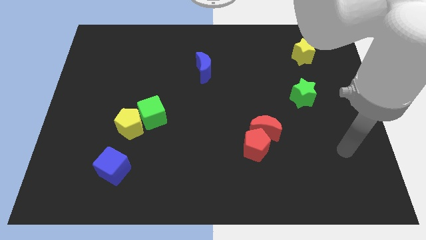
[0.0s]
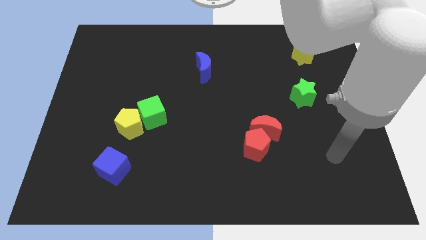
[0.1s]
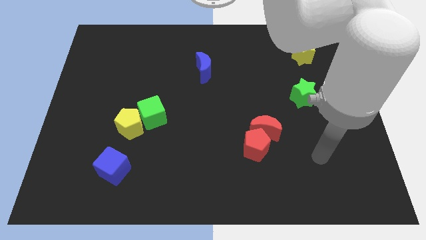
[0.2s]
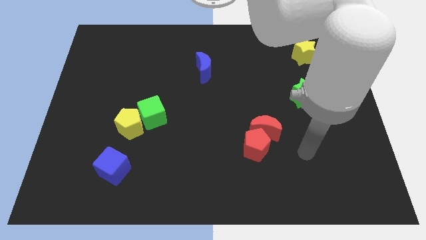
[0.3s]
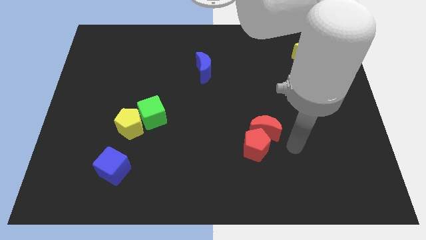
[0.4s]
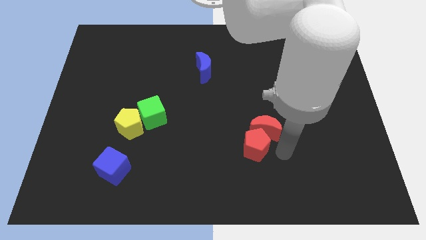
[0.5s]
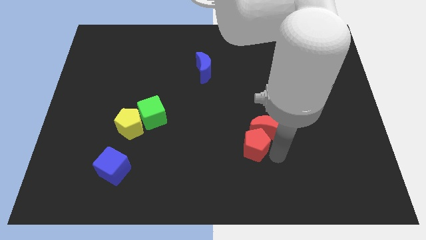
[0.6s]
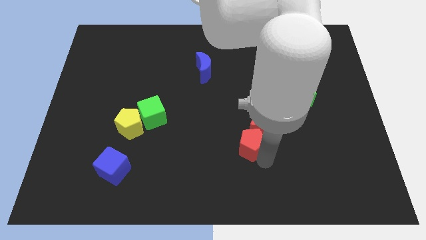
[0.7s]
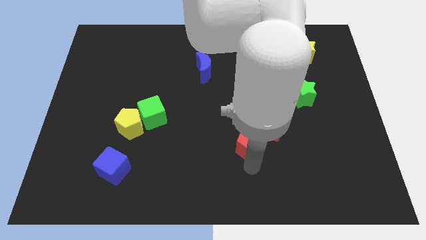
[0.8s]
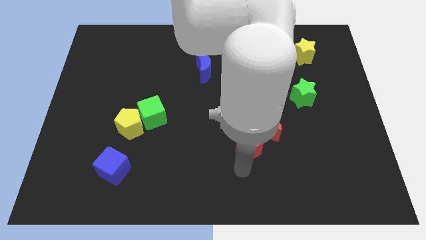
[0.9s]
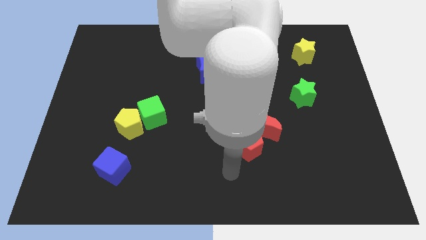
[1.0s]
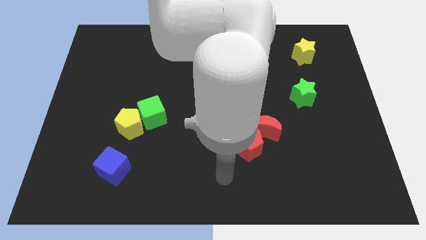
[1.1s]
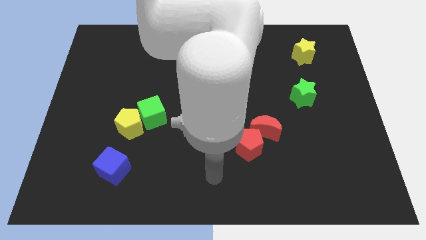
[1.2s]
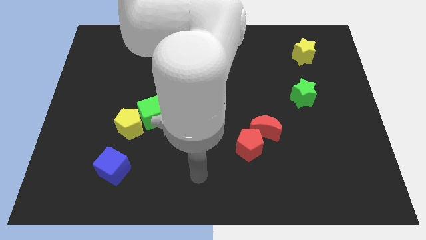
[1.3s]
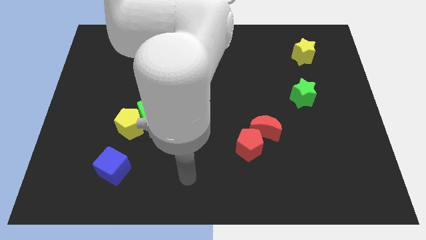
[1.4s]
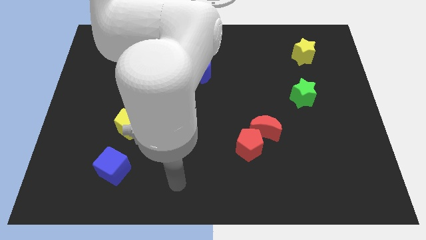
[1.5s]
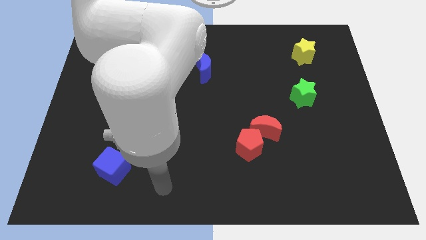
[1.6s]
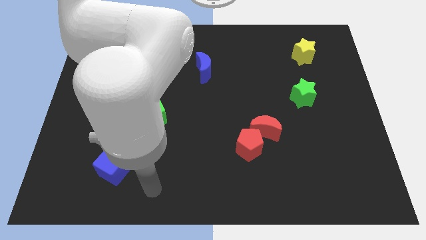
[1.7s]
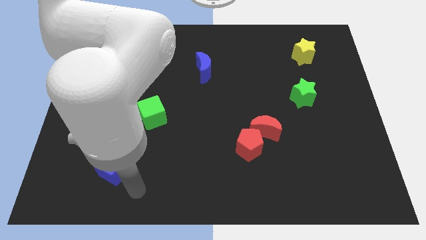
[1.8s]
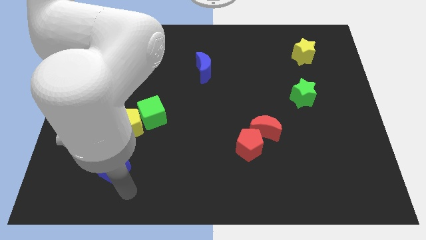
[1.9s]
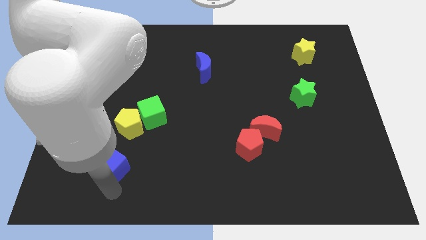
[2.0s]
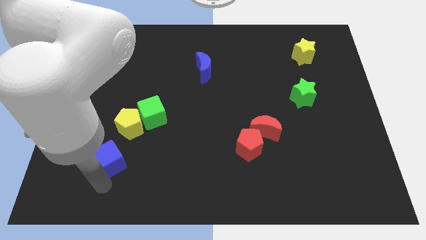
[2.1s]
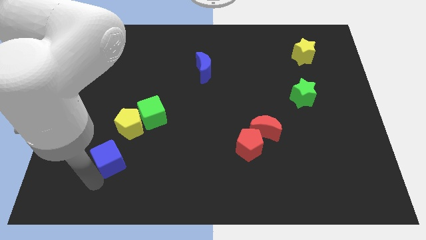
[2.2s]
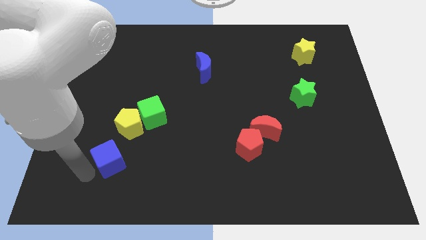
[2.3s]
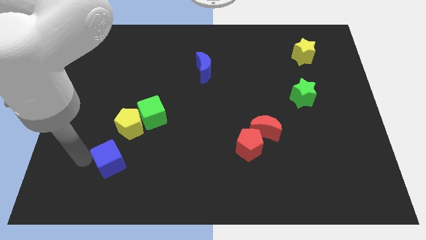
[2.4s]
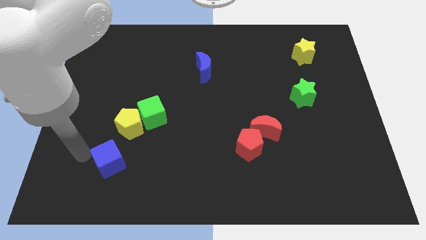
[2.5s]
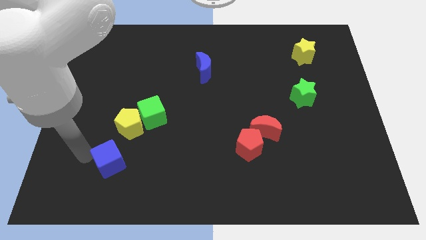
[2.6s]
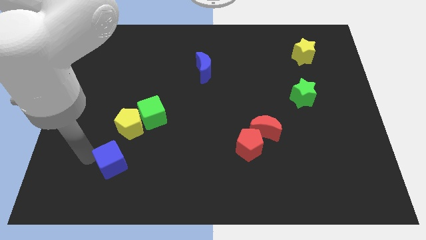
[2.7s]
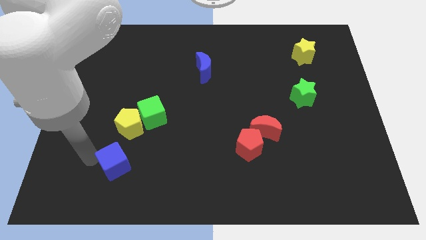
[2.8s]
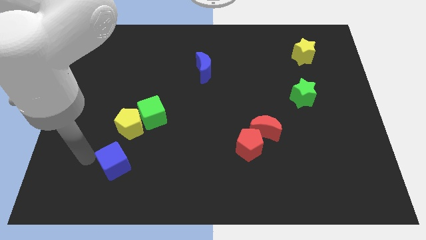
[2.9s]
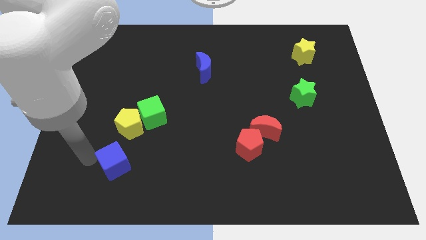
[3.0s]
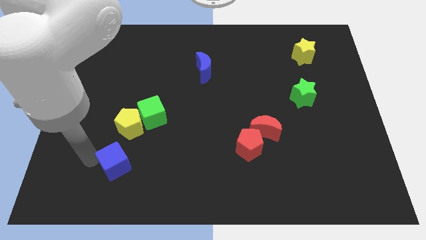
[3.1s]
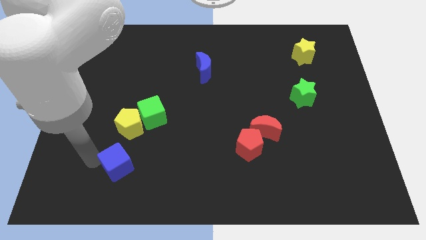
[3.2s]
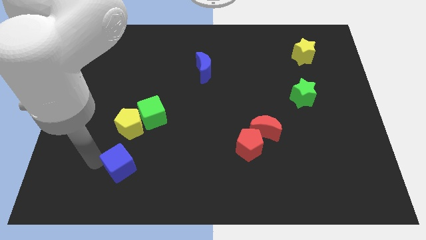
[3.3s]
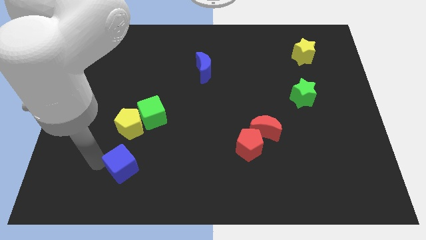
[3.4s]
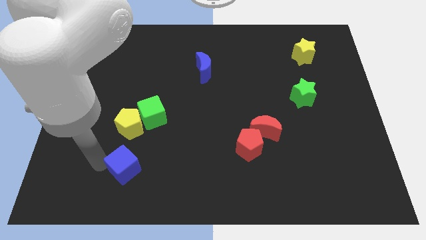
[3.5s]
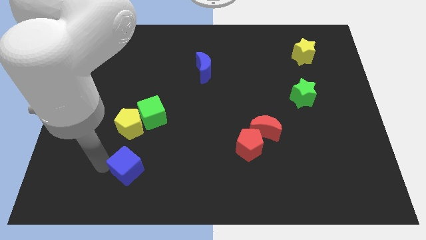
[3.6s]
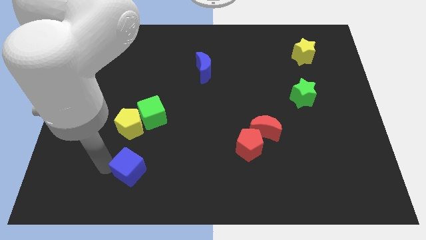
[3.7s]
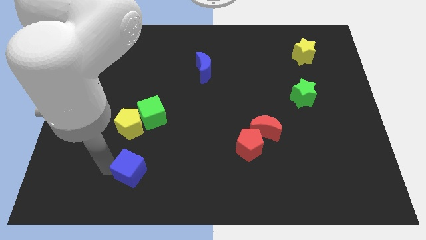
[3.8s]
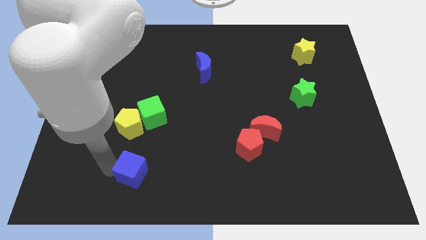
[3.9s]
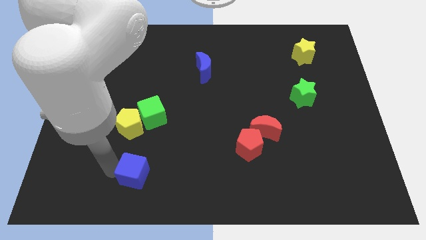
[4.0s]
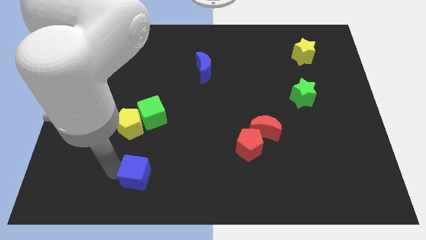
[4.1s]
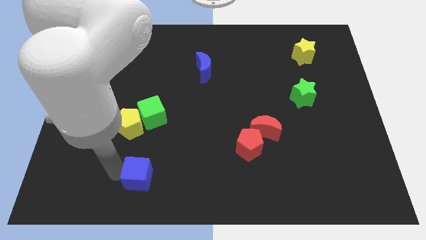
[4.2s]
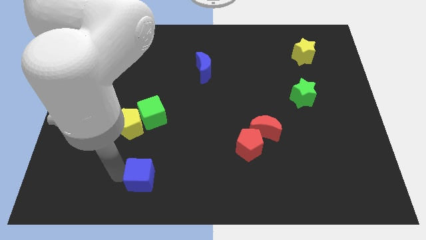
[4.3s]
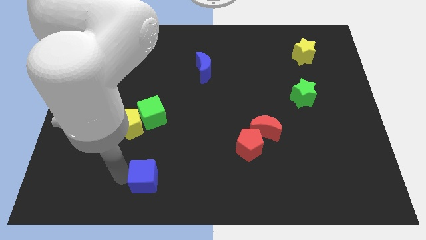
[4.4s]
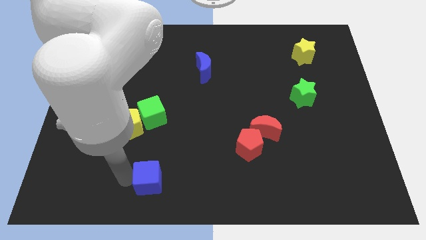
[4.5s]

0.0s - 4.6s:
move the blue cube slightly to the right

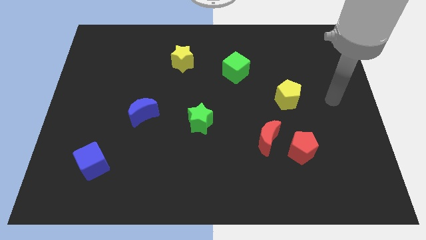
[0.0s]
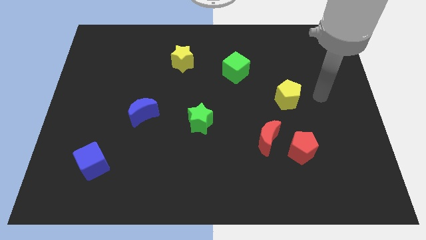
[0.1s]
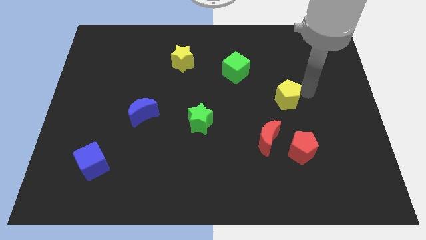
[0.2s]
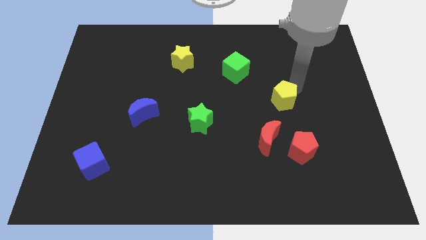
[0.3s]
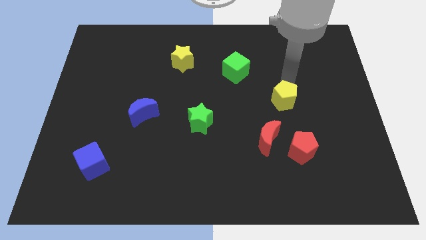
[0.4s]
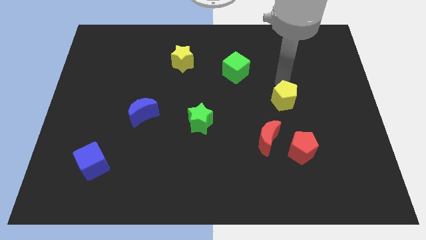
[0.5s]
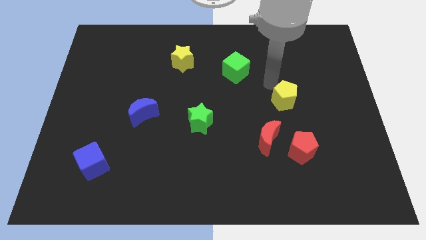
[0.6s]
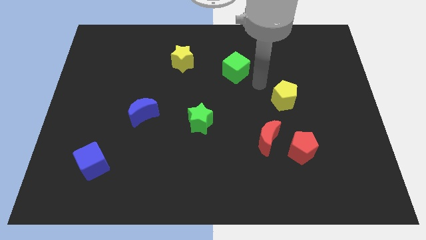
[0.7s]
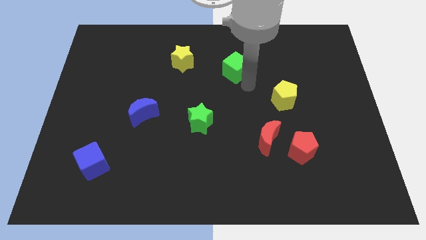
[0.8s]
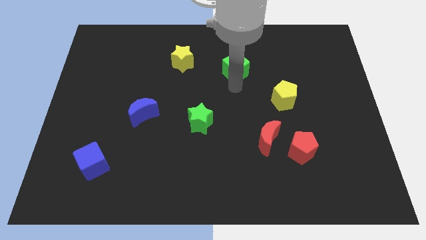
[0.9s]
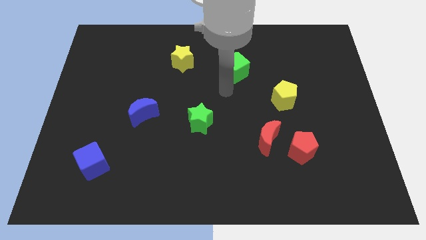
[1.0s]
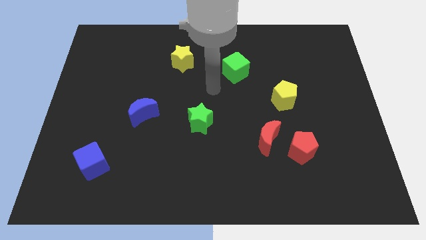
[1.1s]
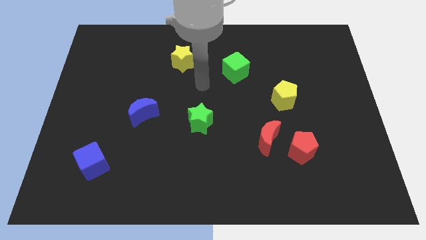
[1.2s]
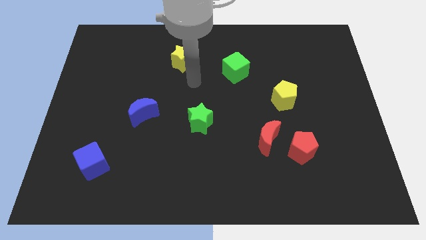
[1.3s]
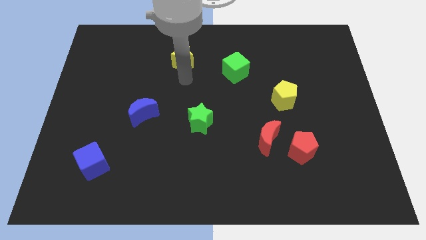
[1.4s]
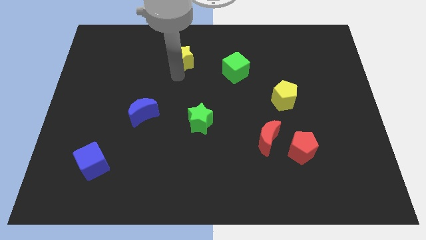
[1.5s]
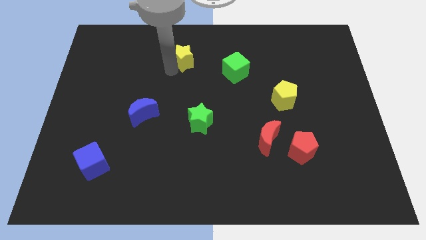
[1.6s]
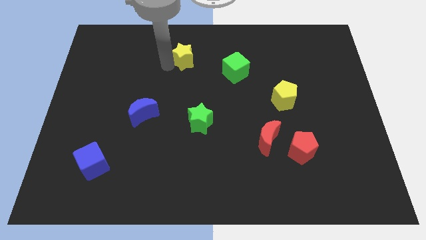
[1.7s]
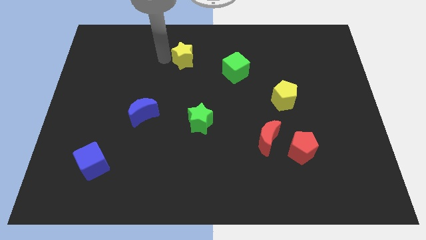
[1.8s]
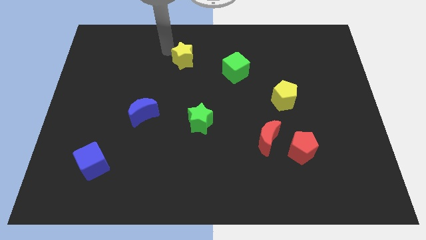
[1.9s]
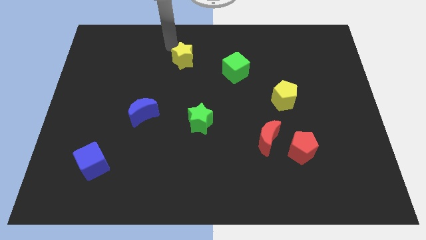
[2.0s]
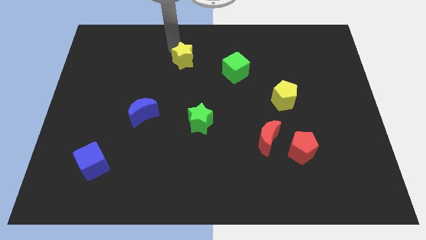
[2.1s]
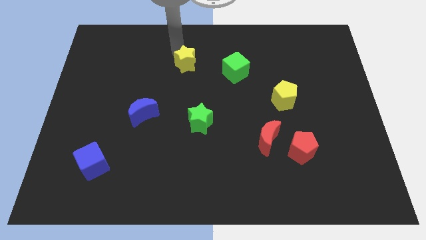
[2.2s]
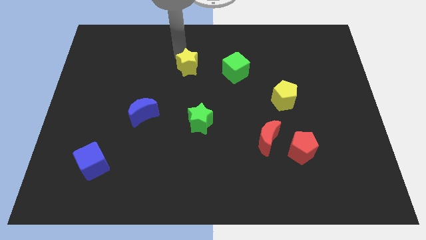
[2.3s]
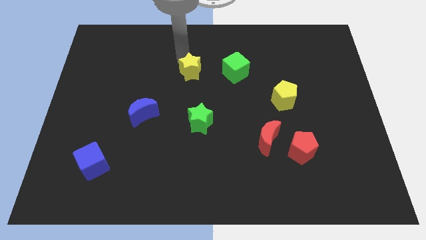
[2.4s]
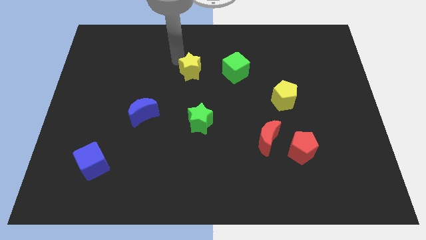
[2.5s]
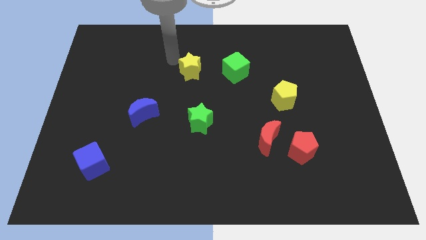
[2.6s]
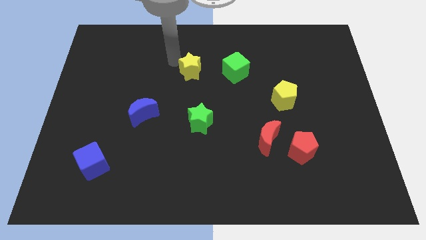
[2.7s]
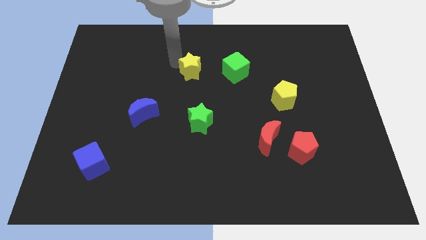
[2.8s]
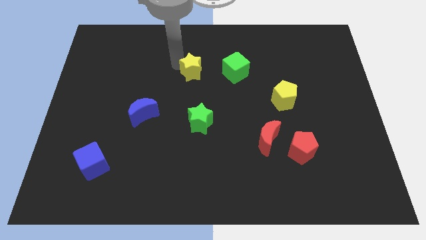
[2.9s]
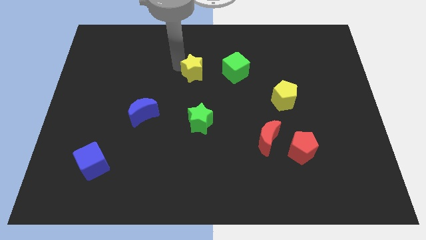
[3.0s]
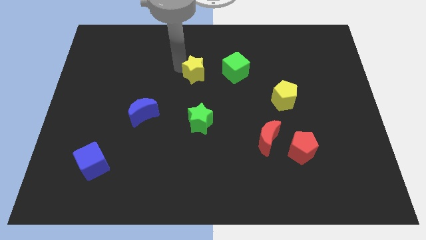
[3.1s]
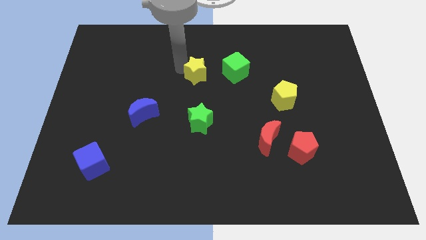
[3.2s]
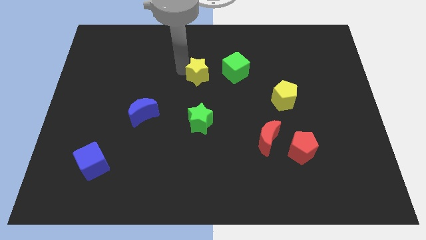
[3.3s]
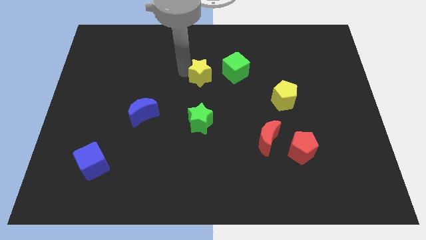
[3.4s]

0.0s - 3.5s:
move the yellow star slightly down and to the right diagonally

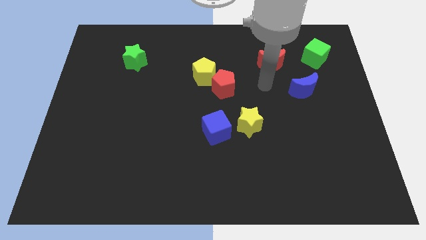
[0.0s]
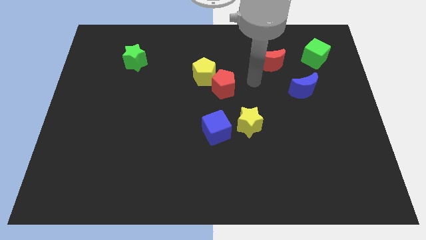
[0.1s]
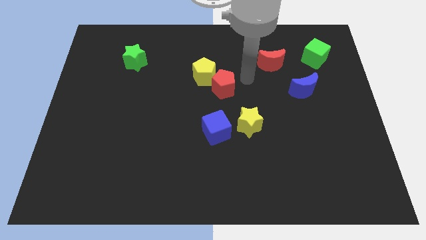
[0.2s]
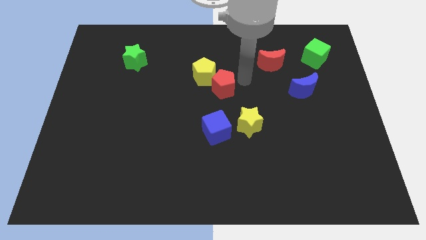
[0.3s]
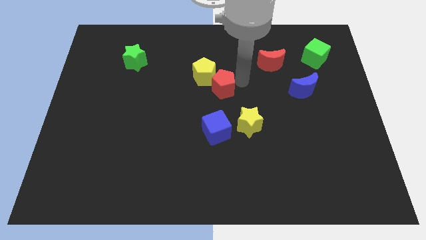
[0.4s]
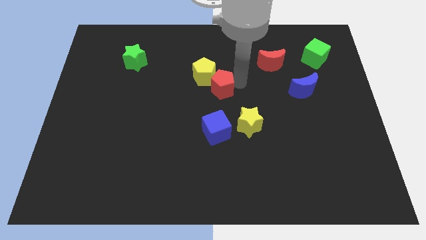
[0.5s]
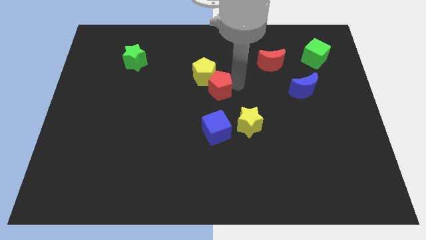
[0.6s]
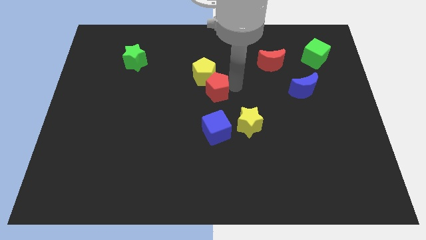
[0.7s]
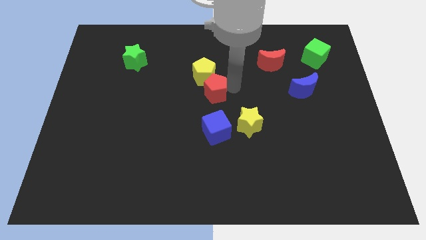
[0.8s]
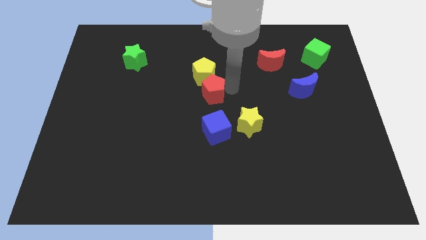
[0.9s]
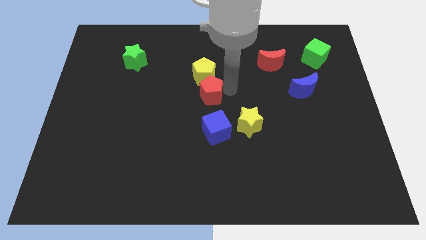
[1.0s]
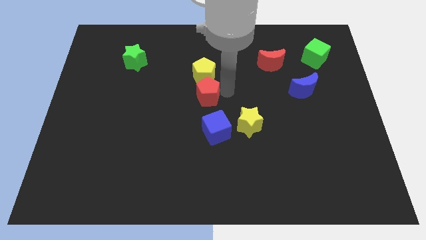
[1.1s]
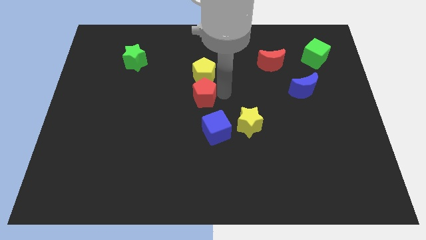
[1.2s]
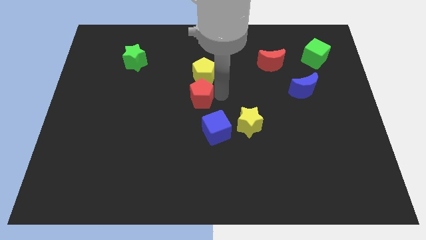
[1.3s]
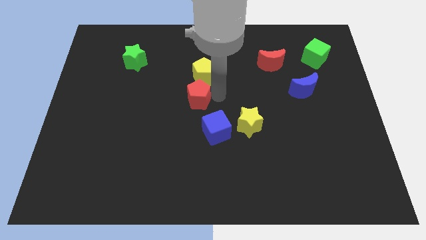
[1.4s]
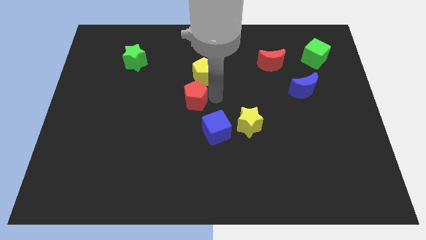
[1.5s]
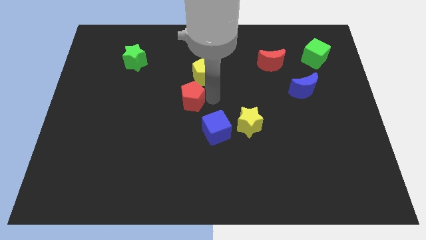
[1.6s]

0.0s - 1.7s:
push the red pentagon left a little bit
